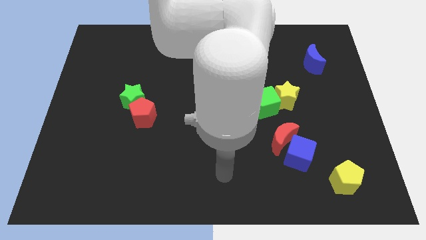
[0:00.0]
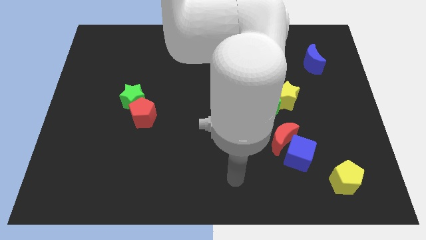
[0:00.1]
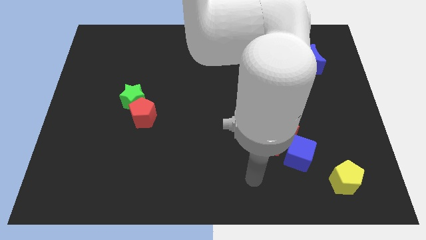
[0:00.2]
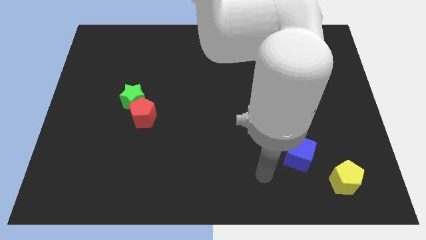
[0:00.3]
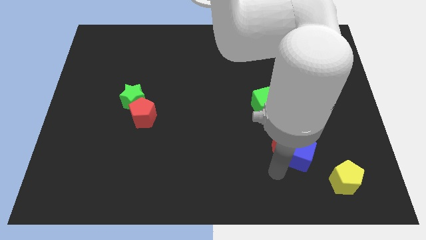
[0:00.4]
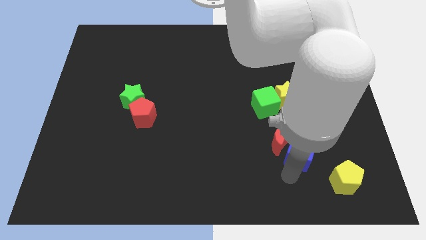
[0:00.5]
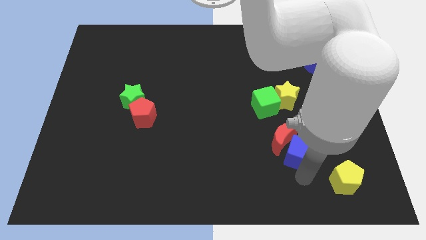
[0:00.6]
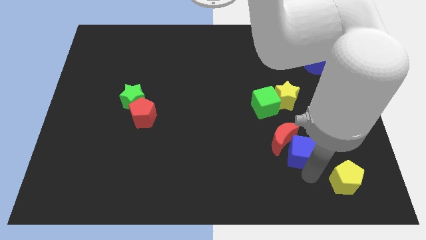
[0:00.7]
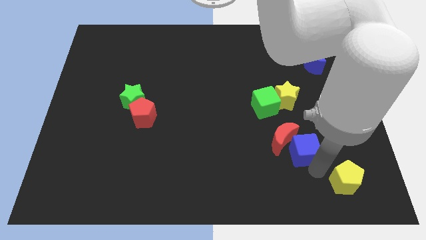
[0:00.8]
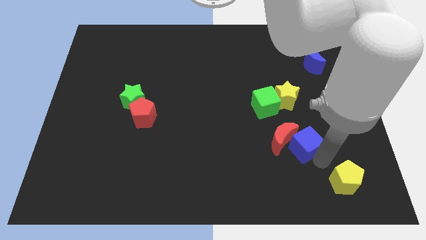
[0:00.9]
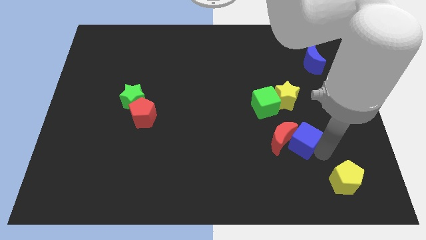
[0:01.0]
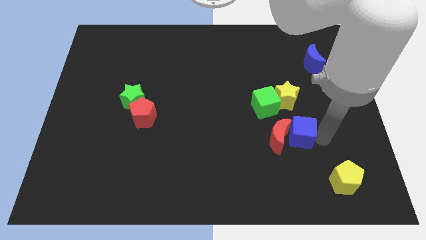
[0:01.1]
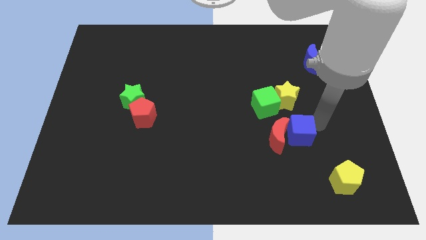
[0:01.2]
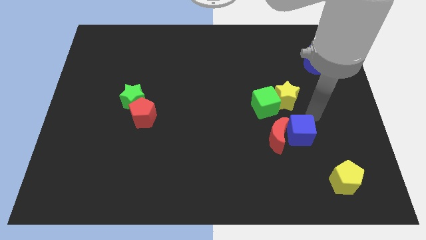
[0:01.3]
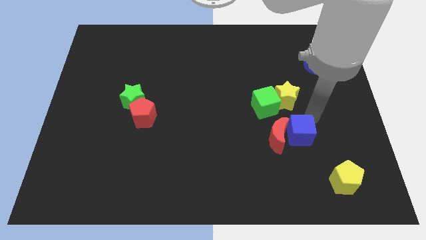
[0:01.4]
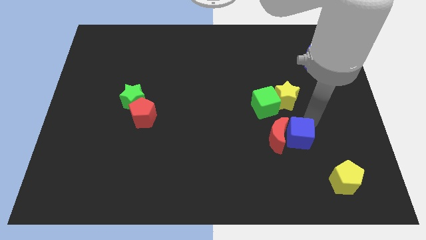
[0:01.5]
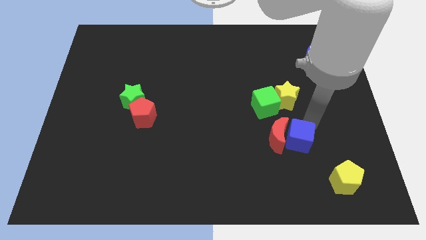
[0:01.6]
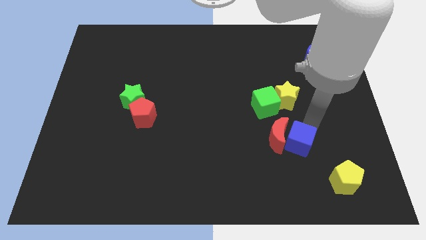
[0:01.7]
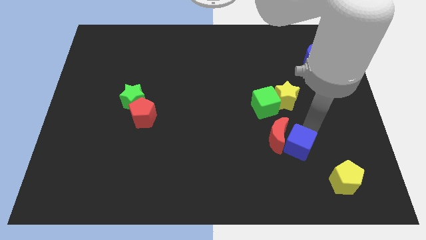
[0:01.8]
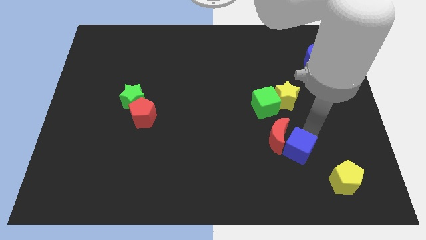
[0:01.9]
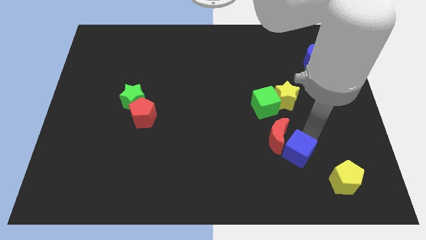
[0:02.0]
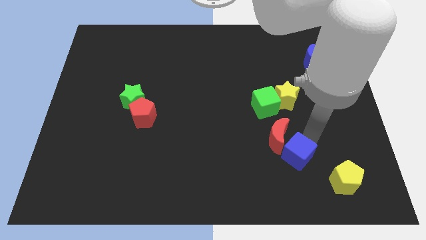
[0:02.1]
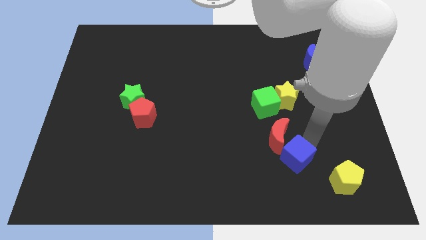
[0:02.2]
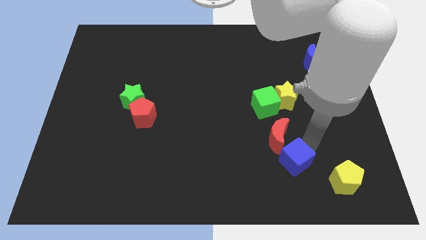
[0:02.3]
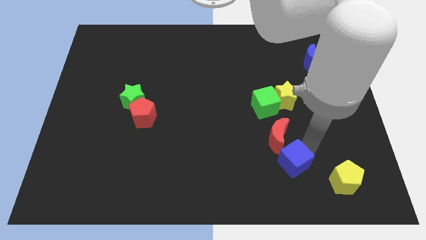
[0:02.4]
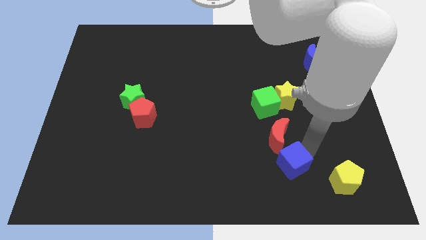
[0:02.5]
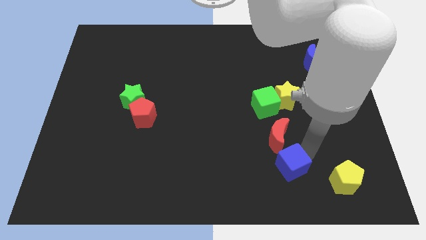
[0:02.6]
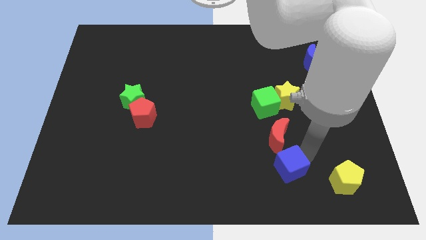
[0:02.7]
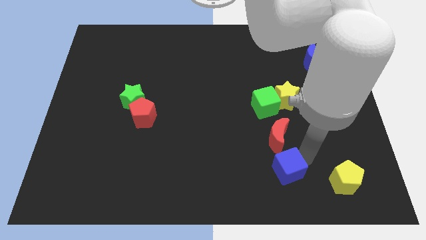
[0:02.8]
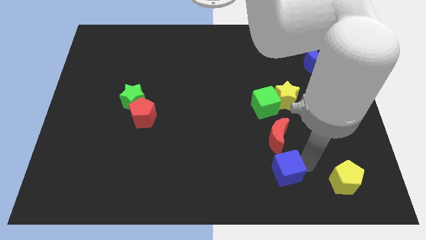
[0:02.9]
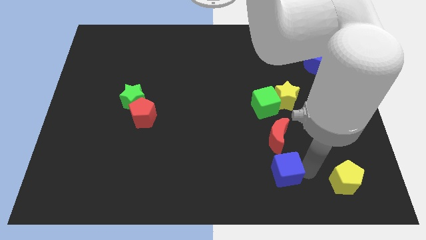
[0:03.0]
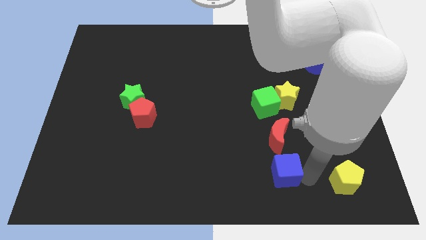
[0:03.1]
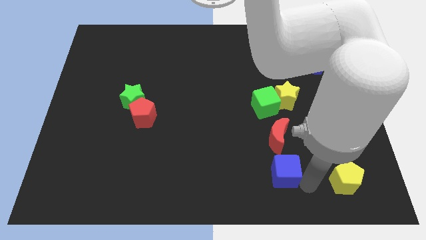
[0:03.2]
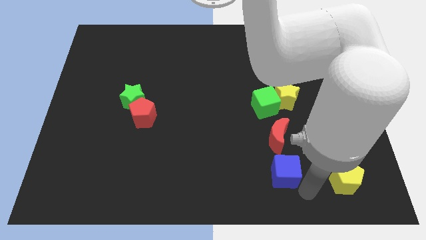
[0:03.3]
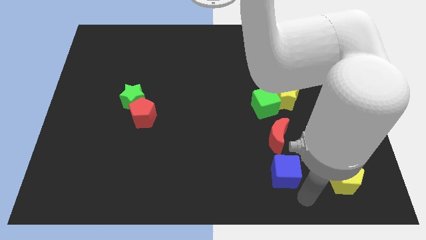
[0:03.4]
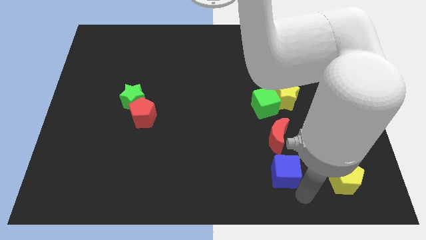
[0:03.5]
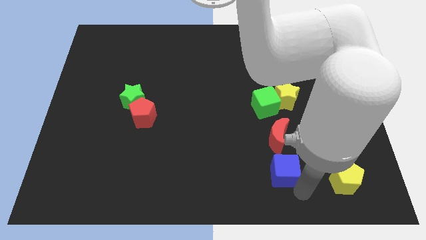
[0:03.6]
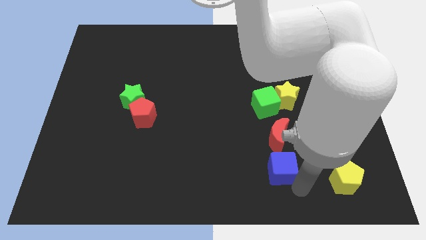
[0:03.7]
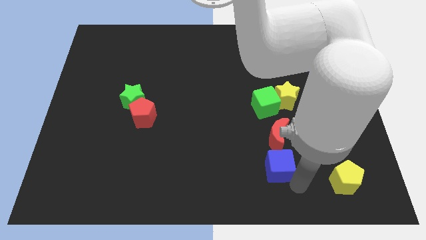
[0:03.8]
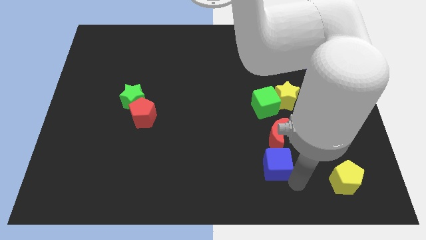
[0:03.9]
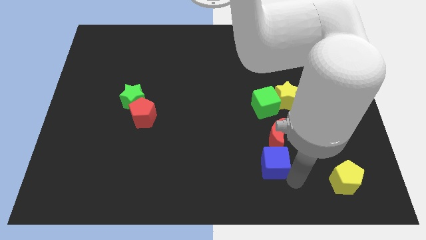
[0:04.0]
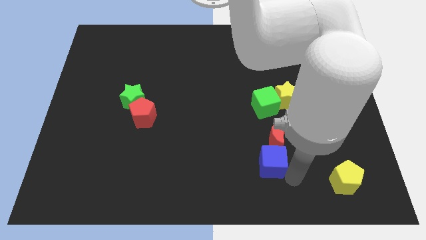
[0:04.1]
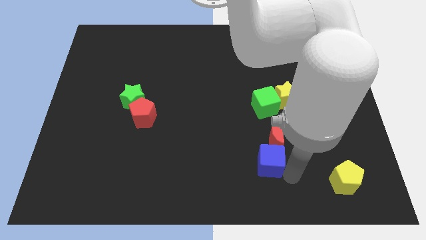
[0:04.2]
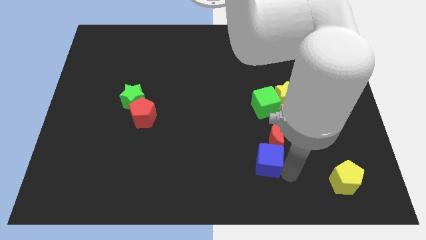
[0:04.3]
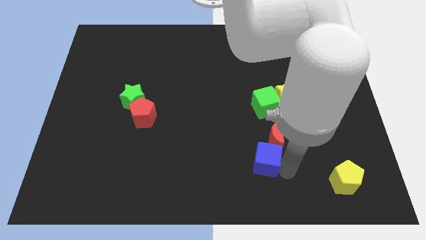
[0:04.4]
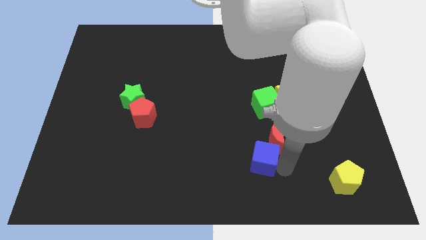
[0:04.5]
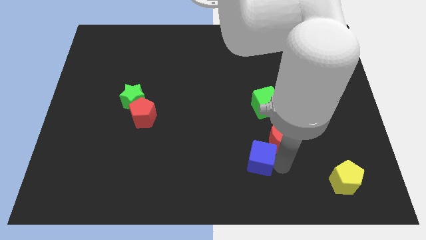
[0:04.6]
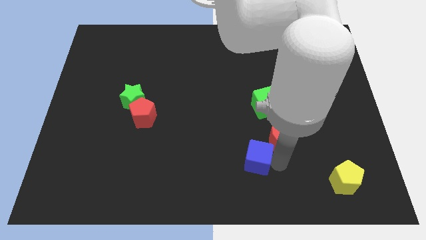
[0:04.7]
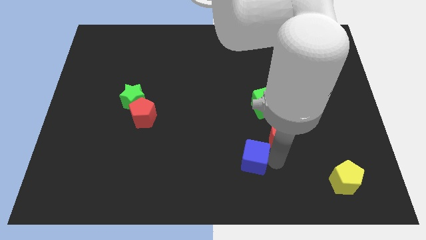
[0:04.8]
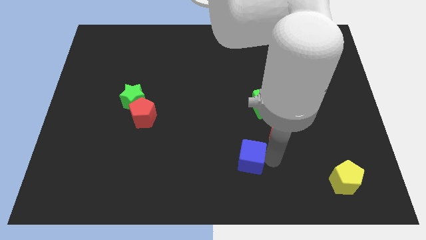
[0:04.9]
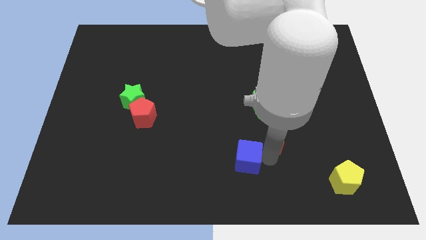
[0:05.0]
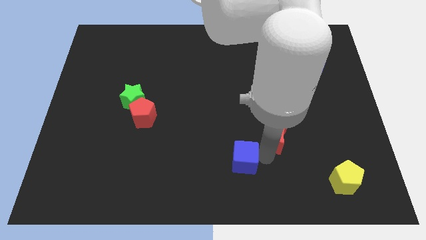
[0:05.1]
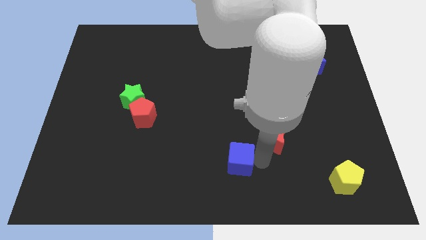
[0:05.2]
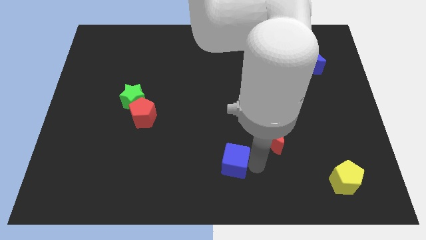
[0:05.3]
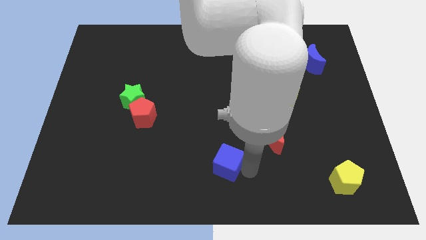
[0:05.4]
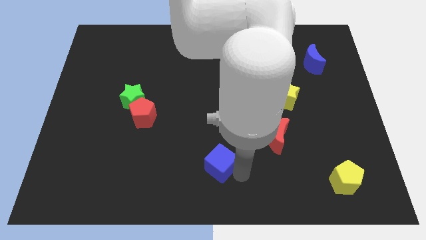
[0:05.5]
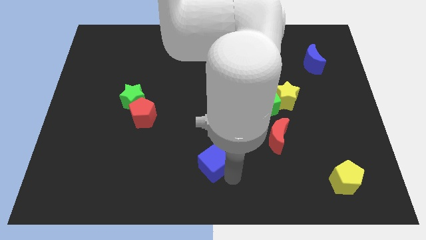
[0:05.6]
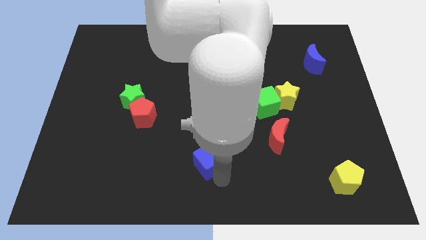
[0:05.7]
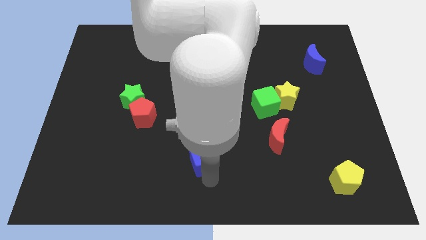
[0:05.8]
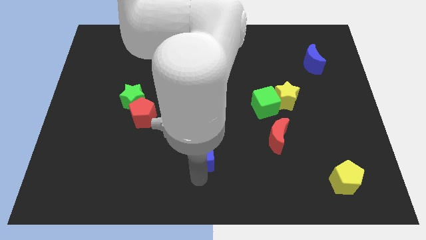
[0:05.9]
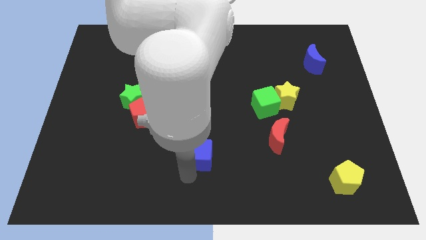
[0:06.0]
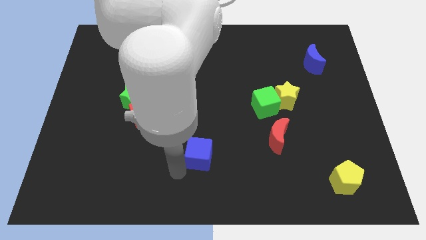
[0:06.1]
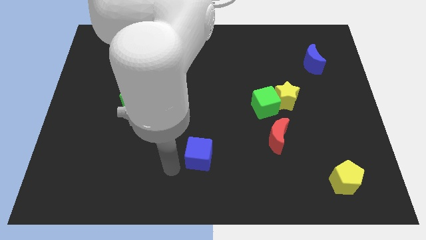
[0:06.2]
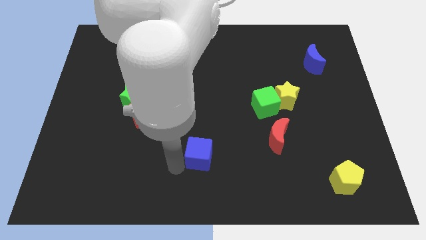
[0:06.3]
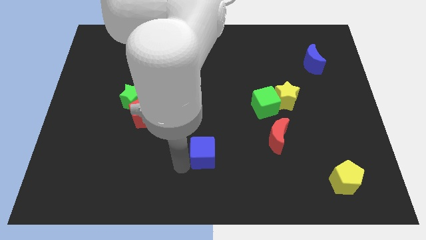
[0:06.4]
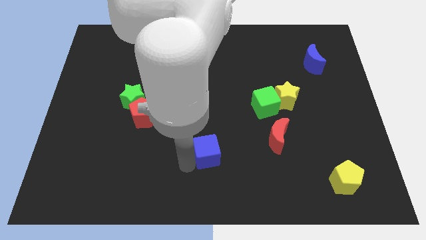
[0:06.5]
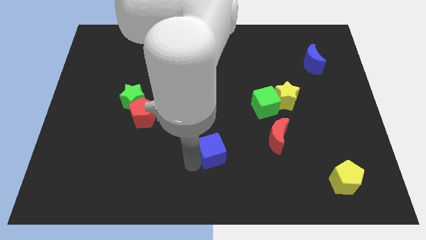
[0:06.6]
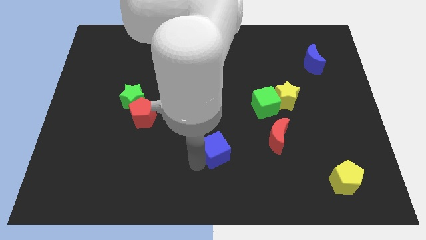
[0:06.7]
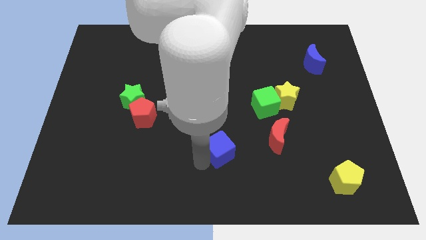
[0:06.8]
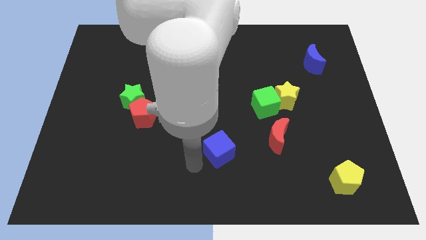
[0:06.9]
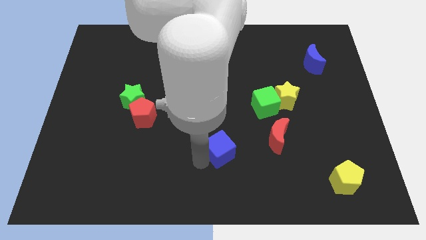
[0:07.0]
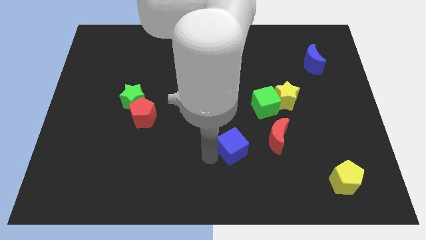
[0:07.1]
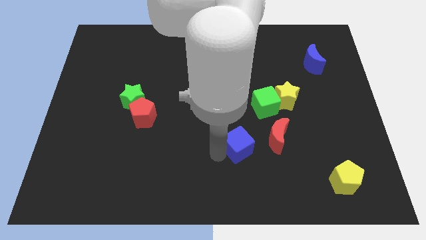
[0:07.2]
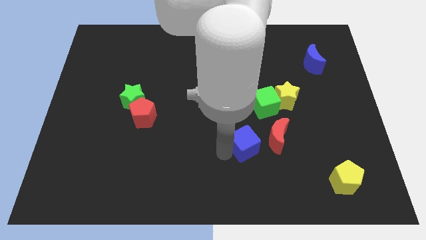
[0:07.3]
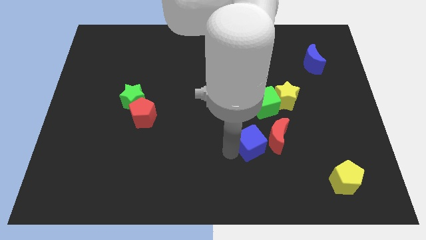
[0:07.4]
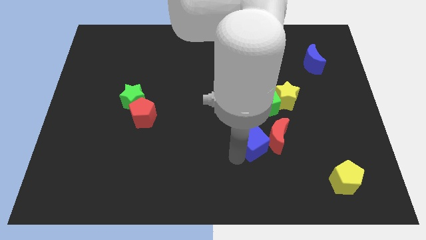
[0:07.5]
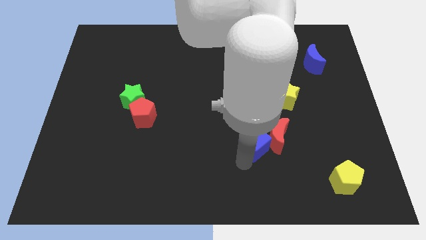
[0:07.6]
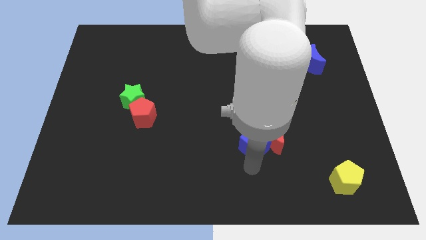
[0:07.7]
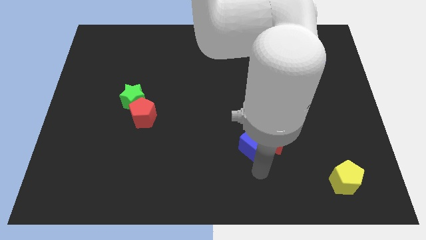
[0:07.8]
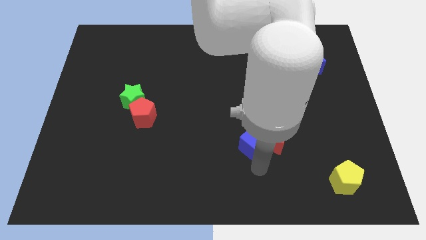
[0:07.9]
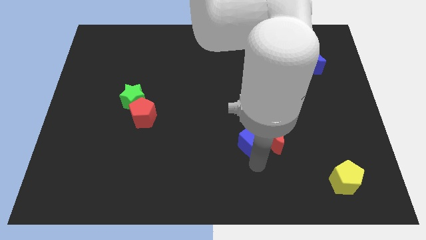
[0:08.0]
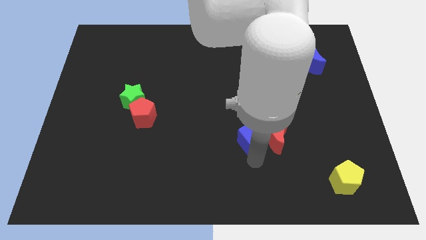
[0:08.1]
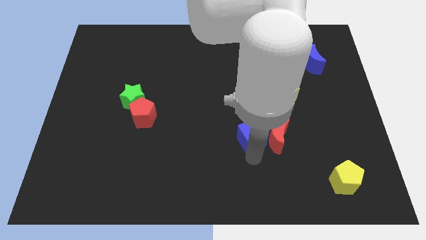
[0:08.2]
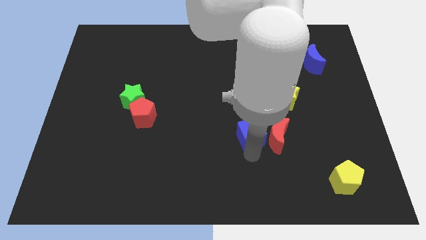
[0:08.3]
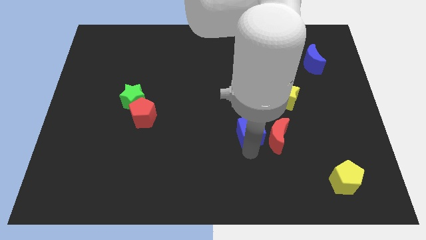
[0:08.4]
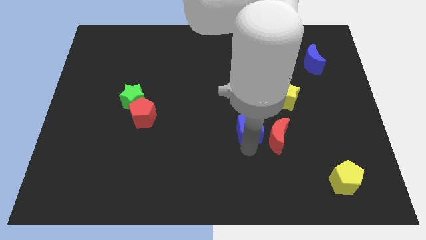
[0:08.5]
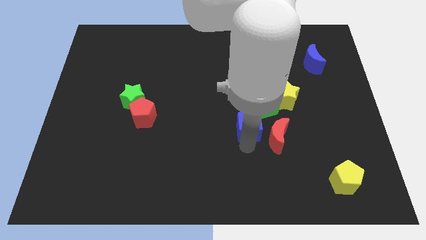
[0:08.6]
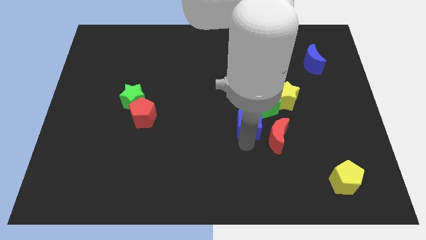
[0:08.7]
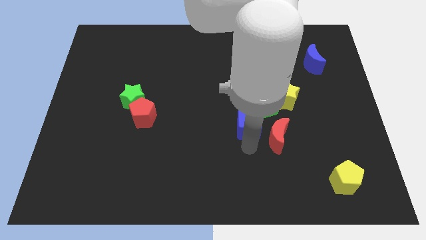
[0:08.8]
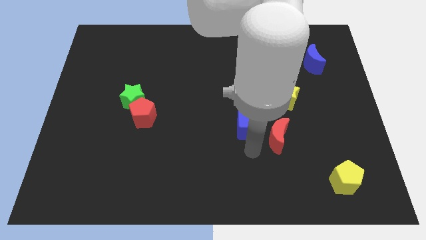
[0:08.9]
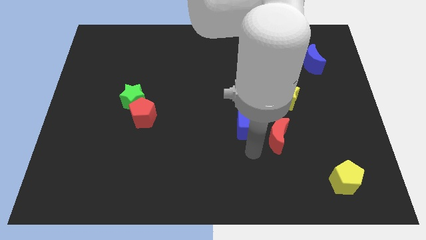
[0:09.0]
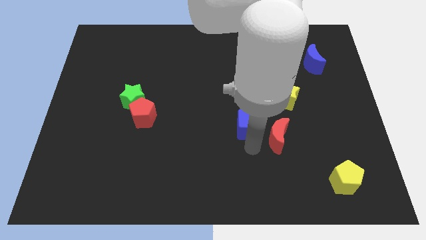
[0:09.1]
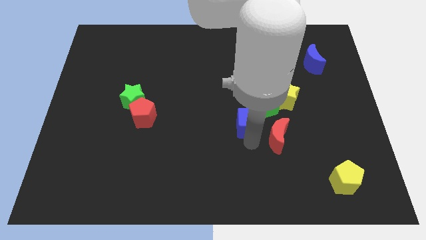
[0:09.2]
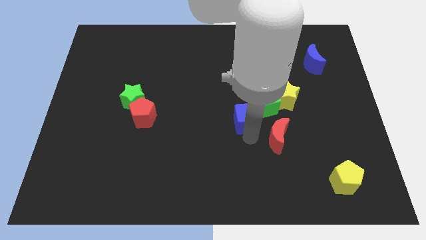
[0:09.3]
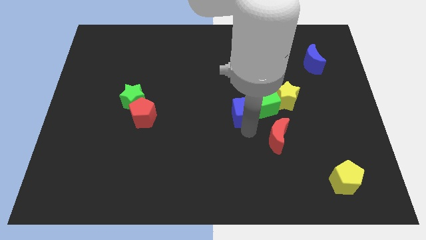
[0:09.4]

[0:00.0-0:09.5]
push the blue cube to the left of the yellow star
